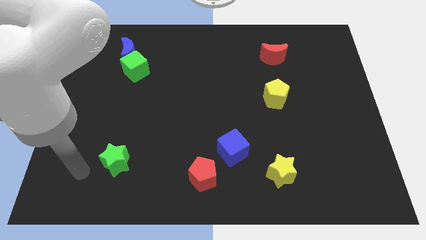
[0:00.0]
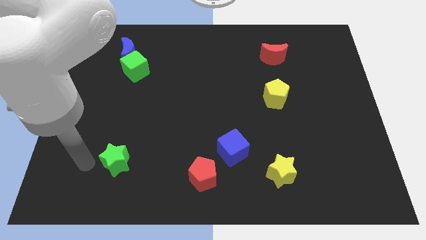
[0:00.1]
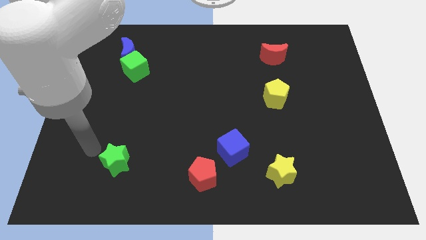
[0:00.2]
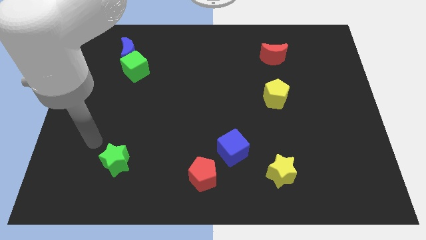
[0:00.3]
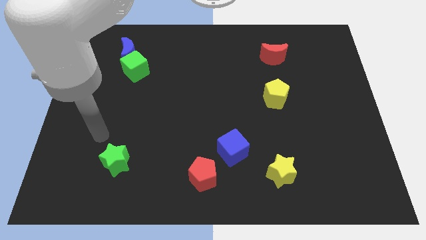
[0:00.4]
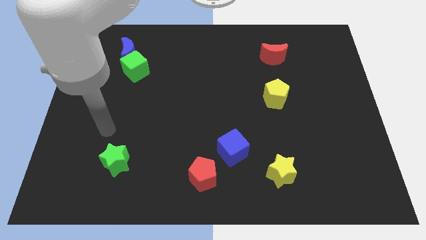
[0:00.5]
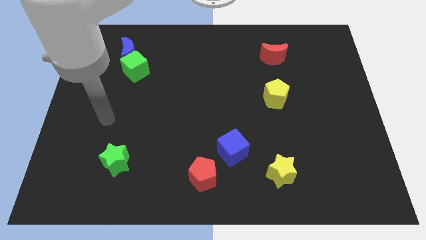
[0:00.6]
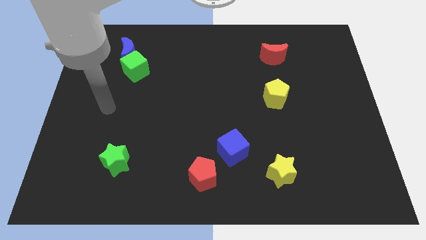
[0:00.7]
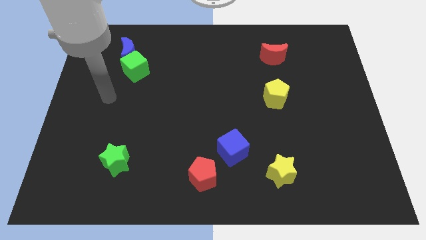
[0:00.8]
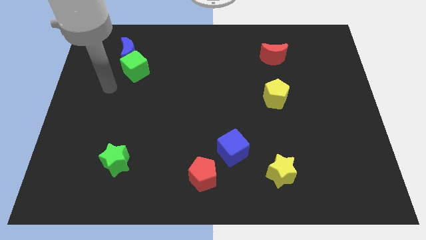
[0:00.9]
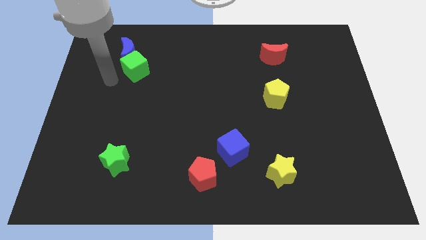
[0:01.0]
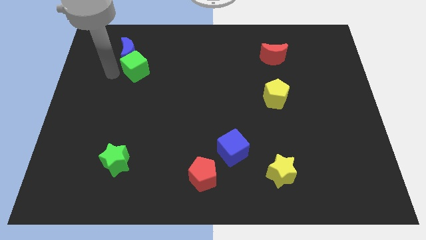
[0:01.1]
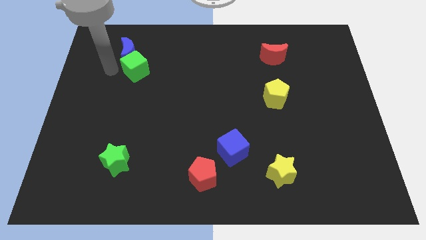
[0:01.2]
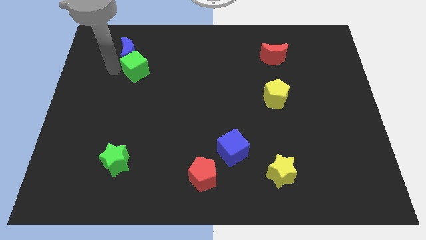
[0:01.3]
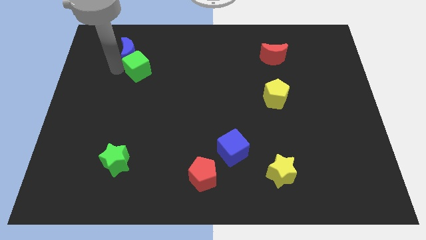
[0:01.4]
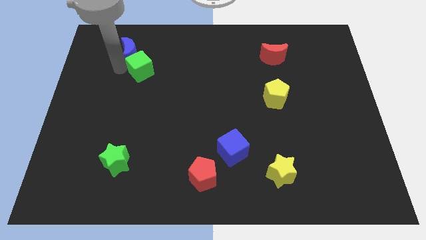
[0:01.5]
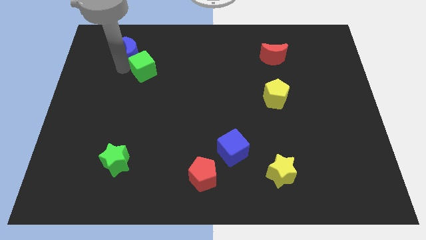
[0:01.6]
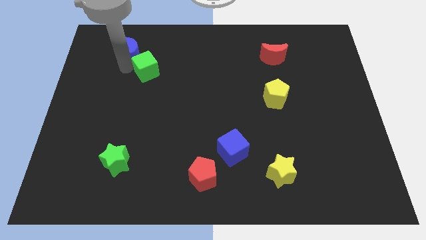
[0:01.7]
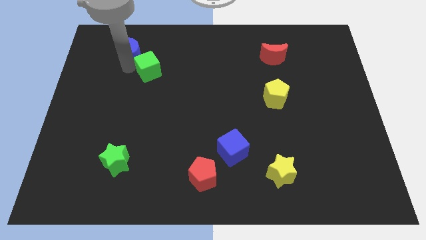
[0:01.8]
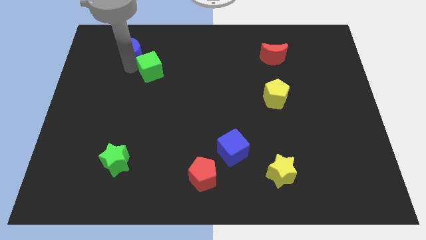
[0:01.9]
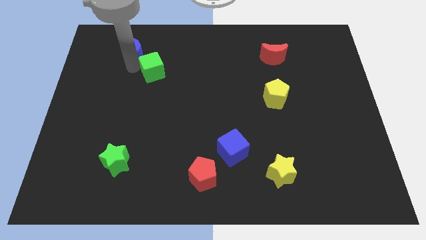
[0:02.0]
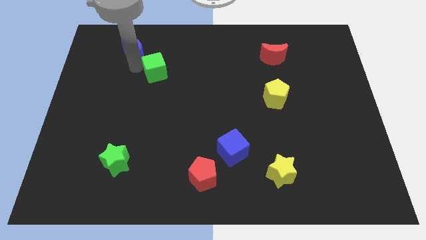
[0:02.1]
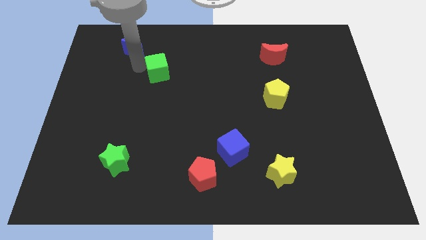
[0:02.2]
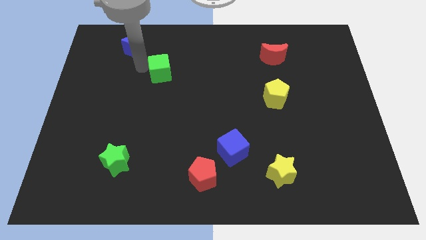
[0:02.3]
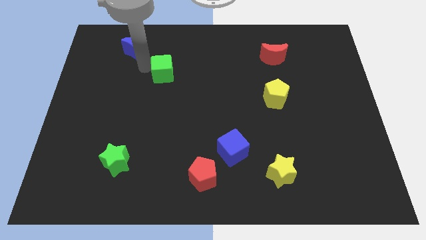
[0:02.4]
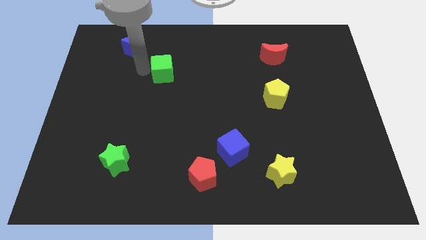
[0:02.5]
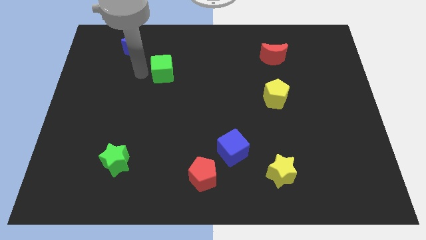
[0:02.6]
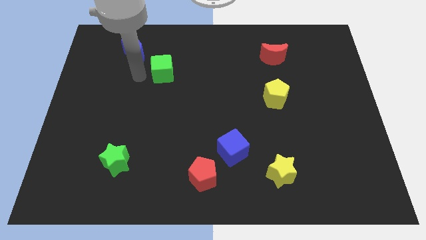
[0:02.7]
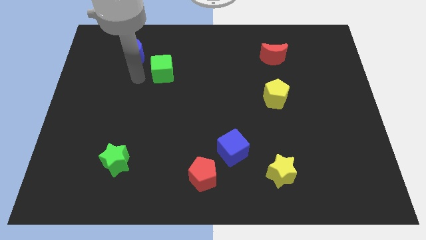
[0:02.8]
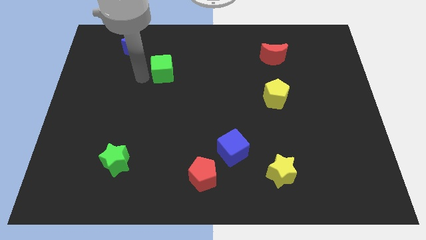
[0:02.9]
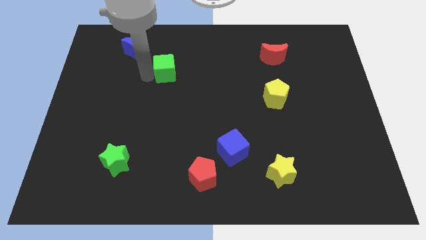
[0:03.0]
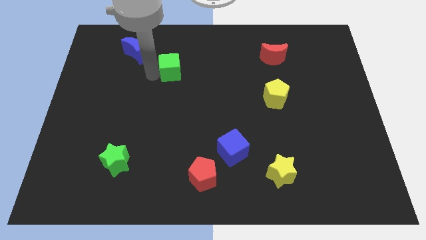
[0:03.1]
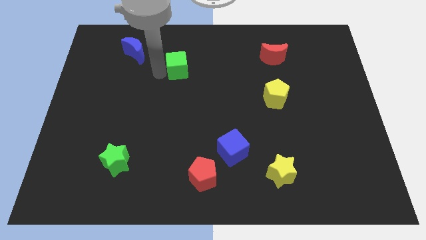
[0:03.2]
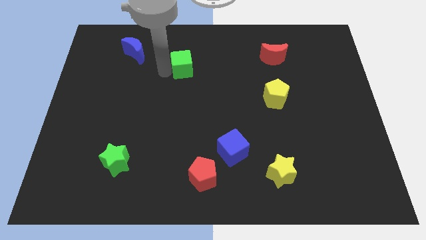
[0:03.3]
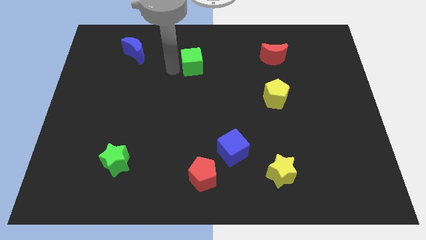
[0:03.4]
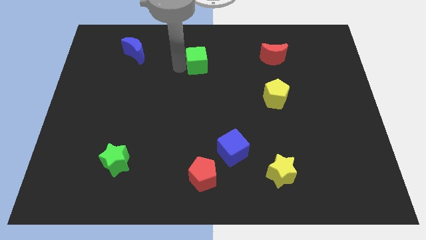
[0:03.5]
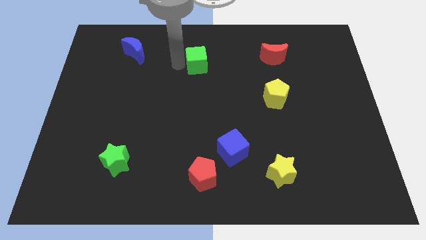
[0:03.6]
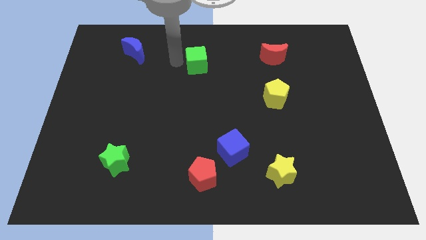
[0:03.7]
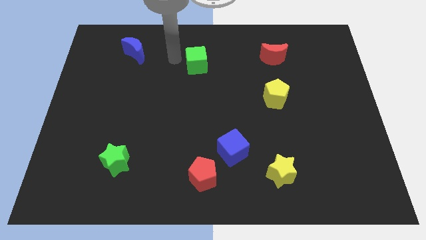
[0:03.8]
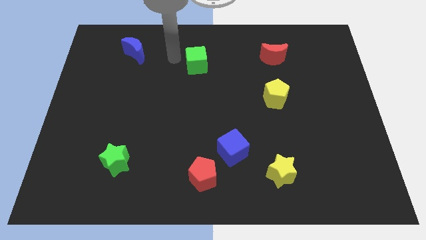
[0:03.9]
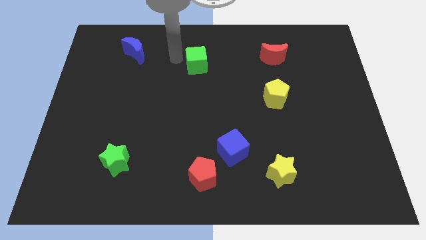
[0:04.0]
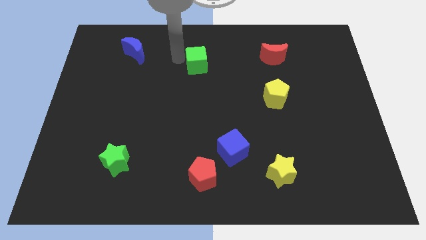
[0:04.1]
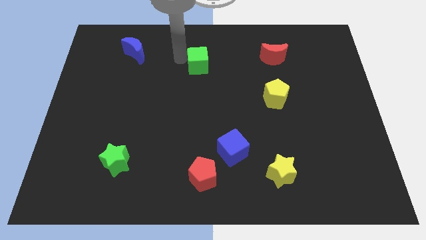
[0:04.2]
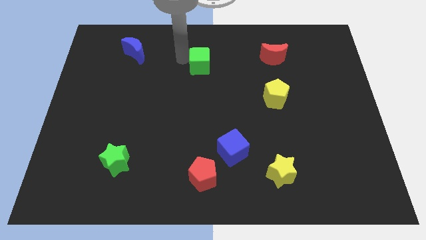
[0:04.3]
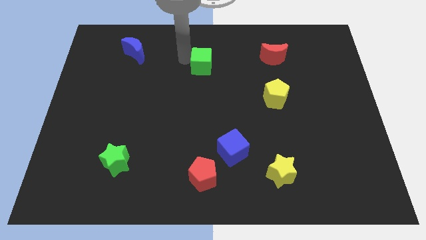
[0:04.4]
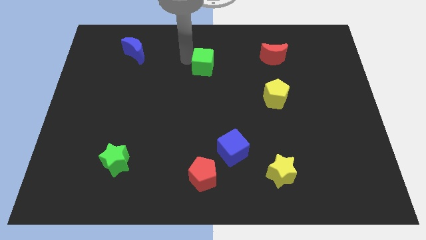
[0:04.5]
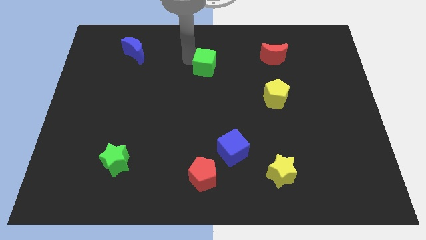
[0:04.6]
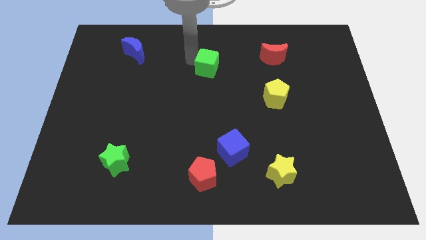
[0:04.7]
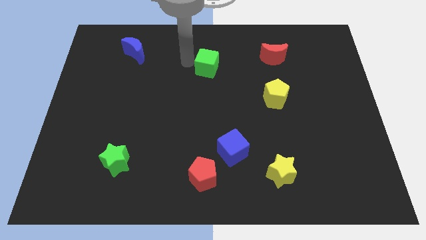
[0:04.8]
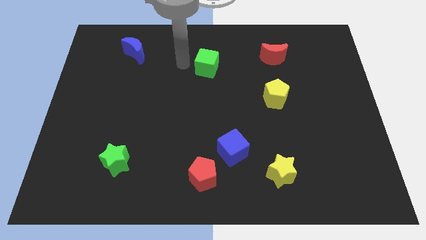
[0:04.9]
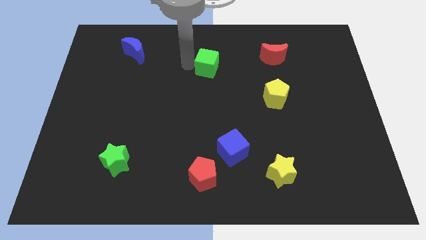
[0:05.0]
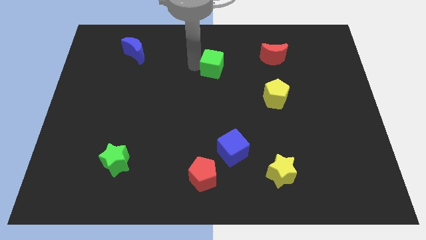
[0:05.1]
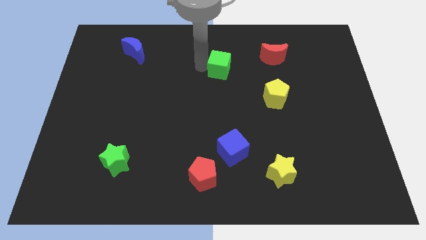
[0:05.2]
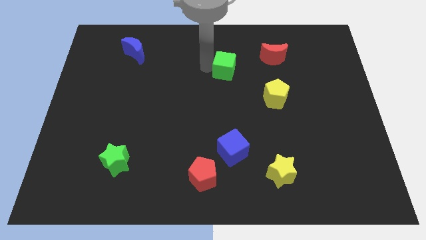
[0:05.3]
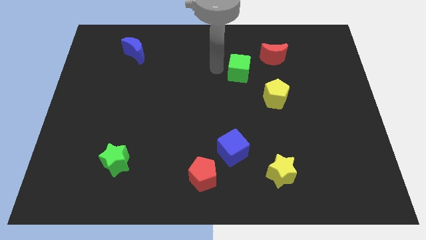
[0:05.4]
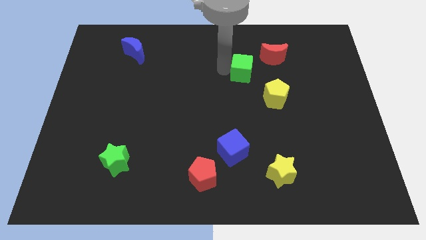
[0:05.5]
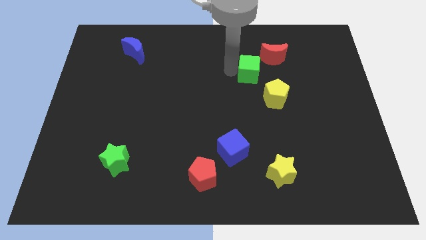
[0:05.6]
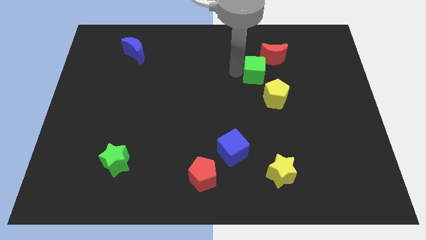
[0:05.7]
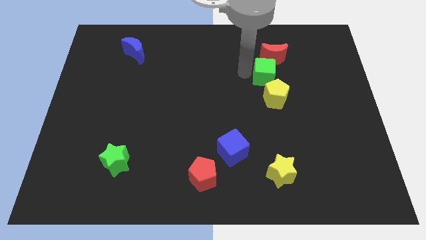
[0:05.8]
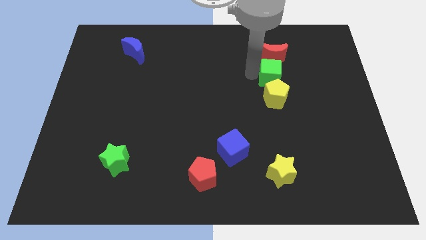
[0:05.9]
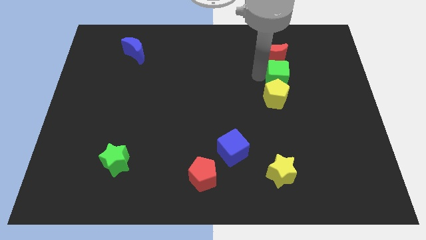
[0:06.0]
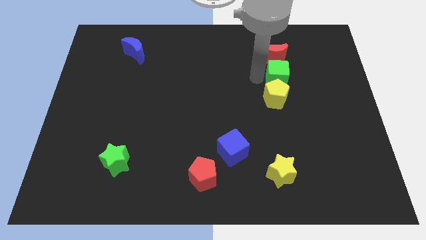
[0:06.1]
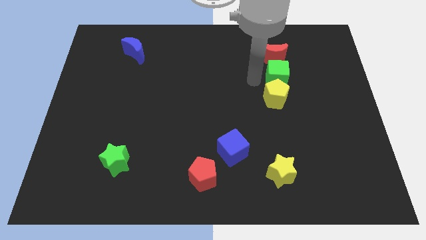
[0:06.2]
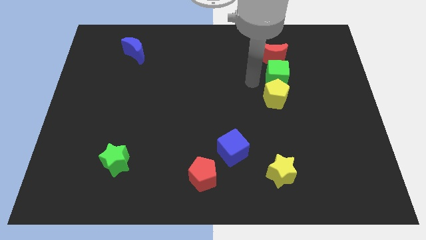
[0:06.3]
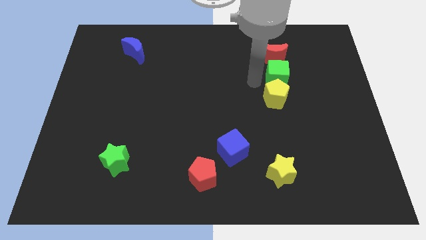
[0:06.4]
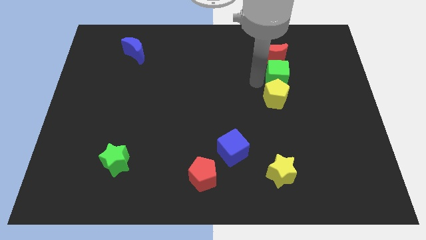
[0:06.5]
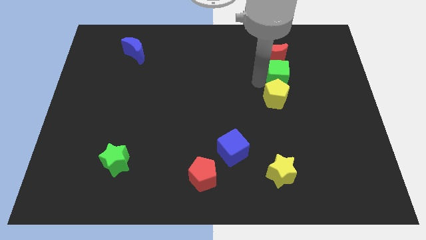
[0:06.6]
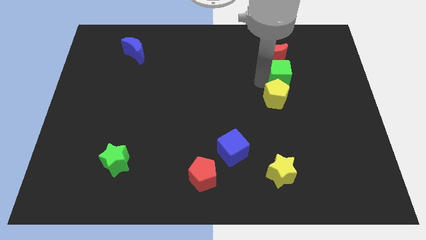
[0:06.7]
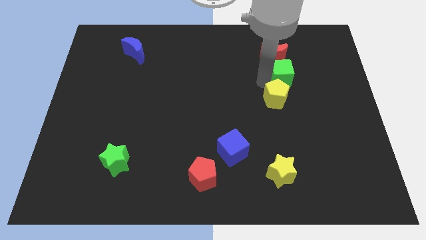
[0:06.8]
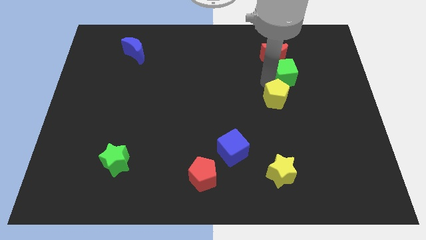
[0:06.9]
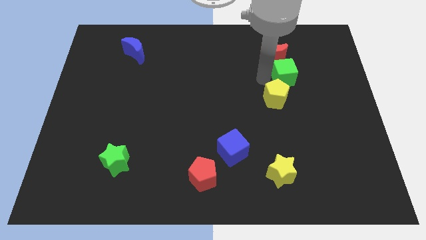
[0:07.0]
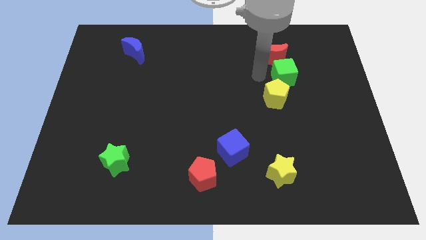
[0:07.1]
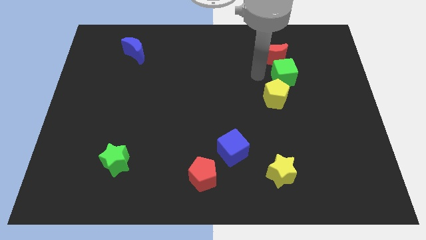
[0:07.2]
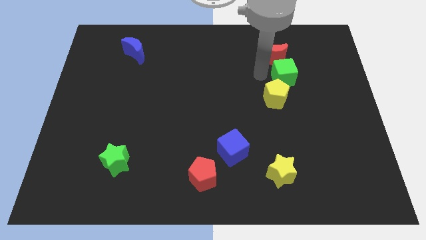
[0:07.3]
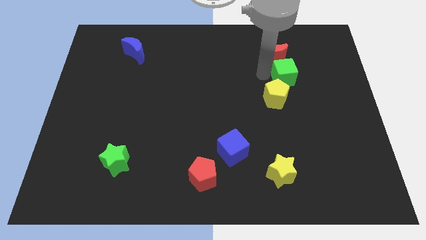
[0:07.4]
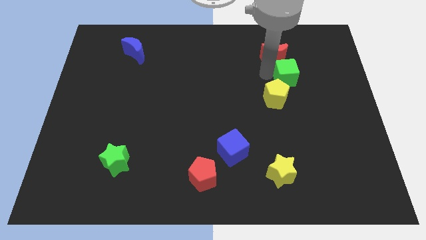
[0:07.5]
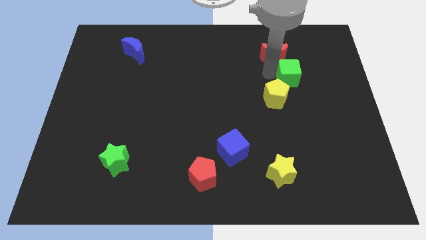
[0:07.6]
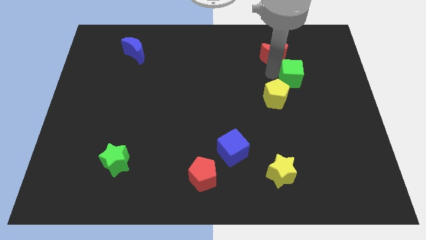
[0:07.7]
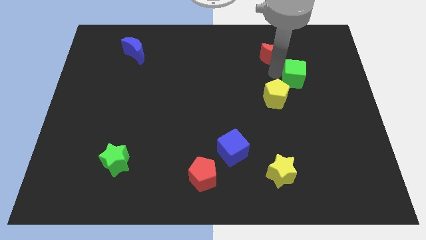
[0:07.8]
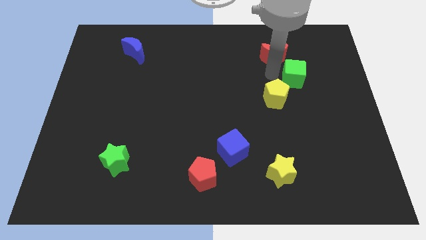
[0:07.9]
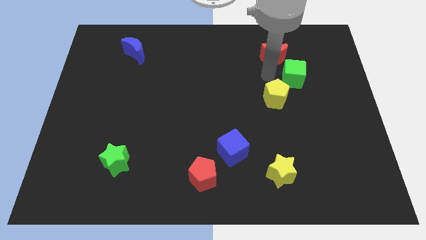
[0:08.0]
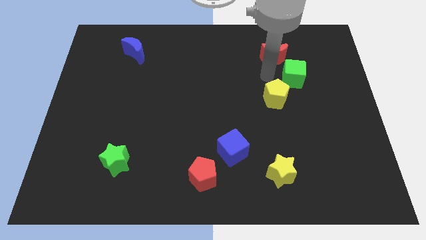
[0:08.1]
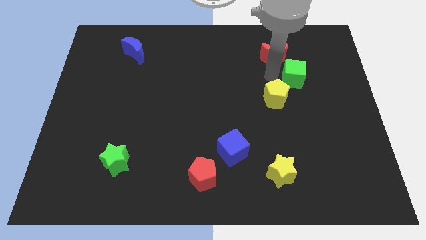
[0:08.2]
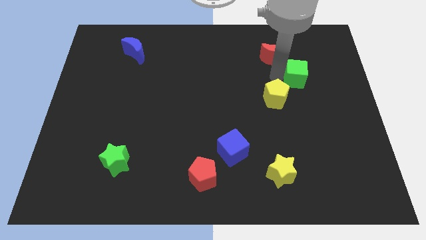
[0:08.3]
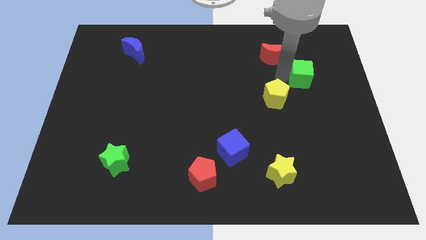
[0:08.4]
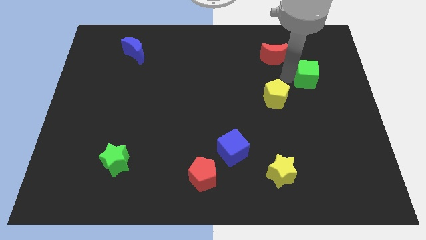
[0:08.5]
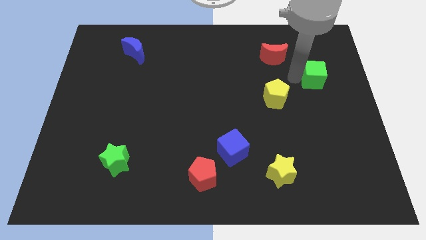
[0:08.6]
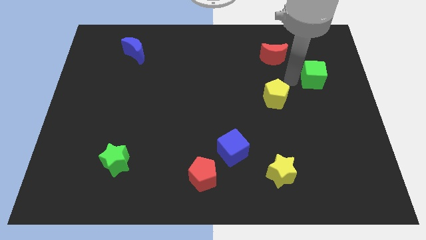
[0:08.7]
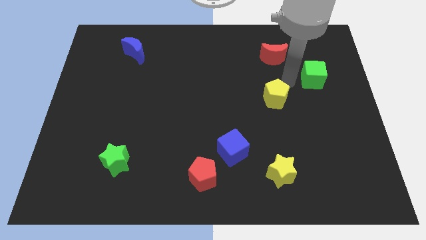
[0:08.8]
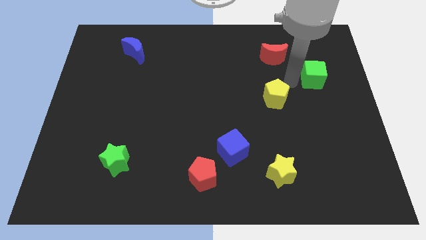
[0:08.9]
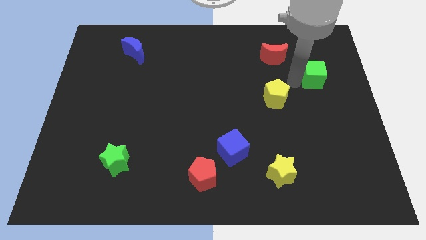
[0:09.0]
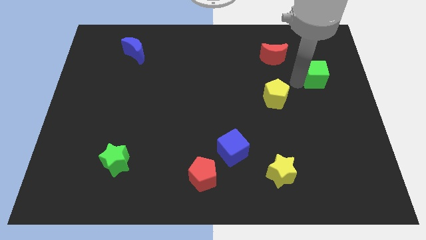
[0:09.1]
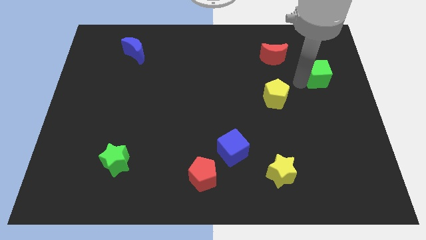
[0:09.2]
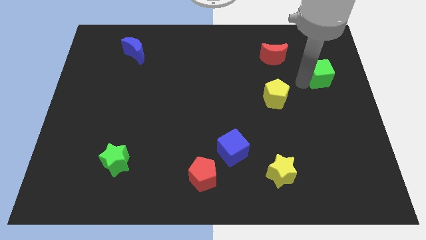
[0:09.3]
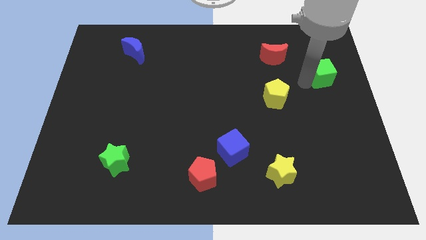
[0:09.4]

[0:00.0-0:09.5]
push the green cube to the center right
